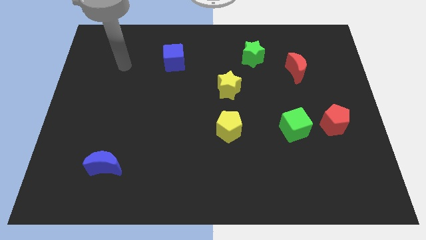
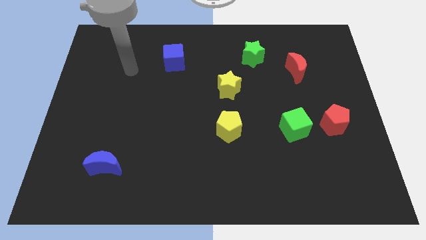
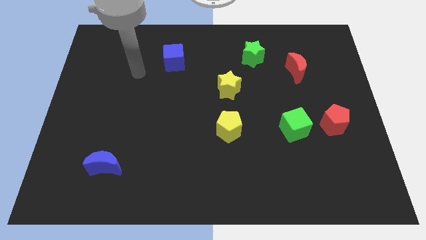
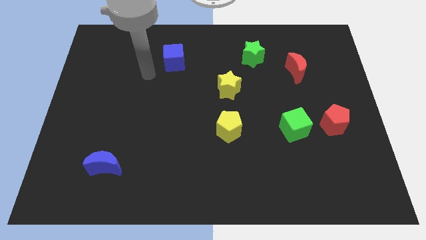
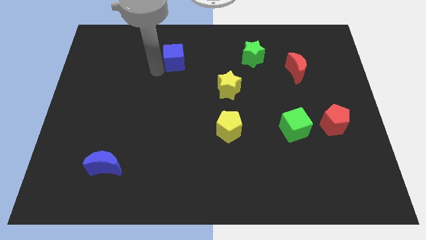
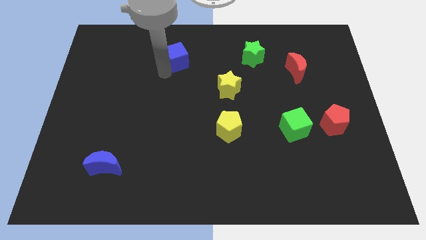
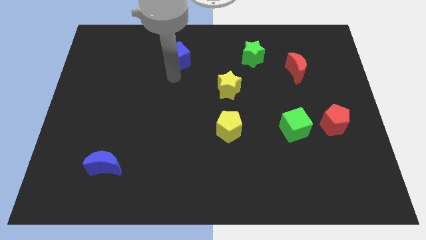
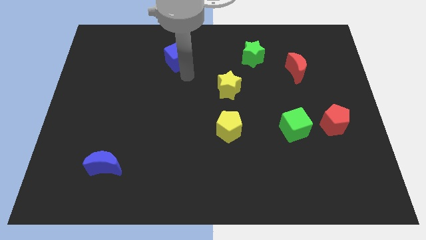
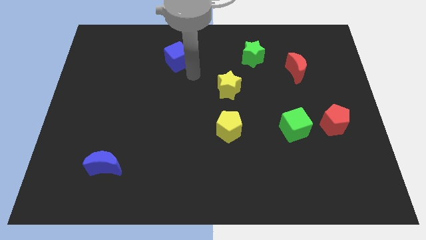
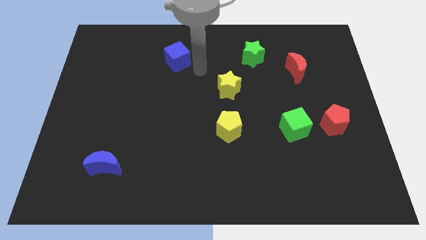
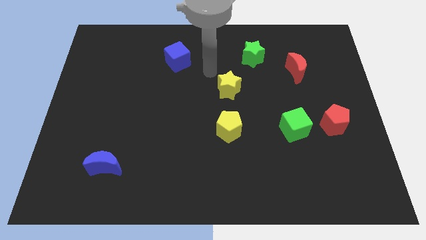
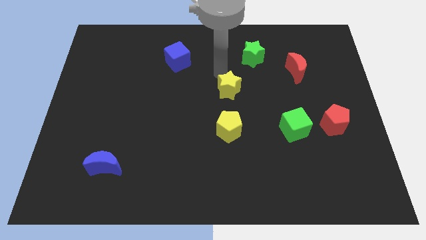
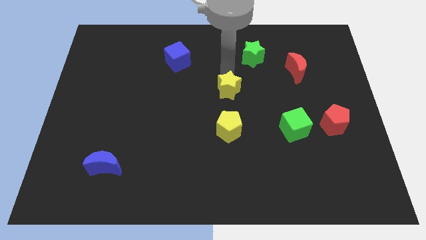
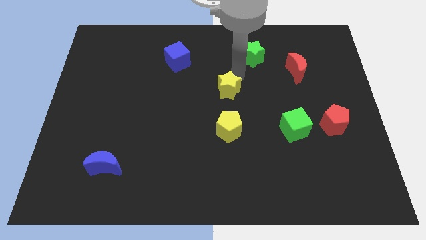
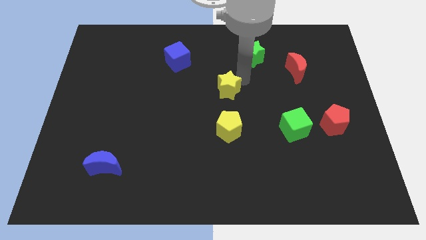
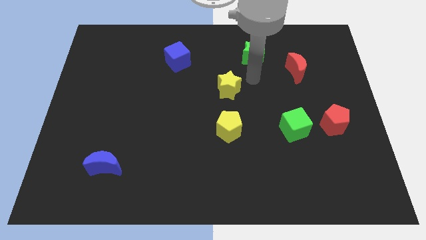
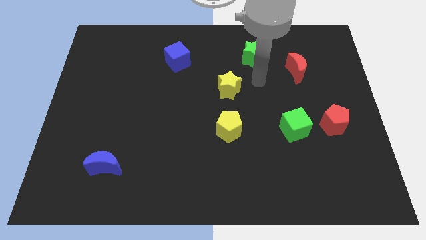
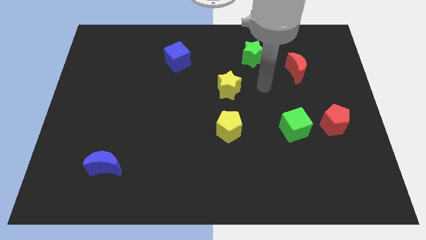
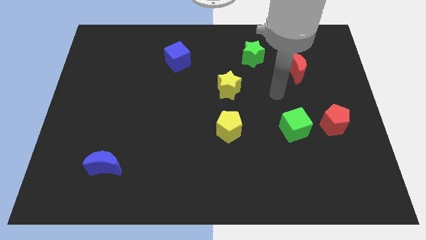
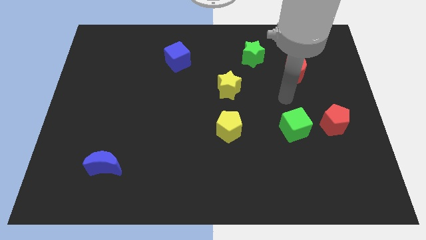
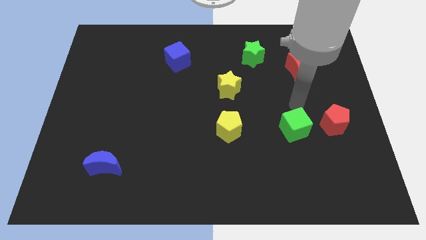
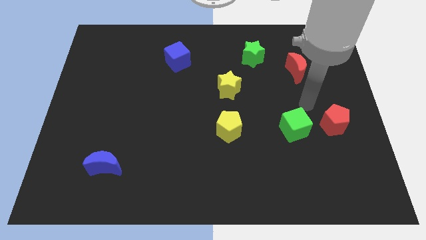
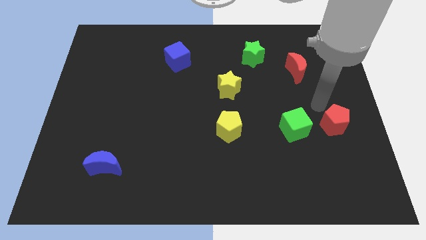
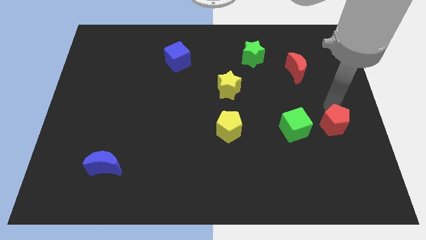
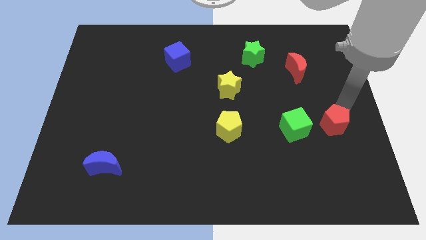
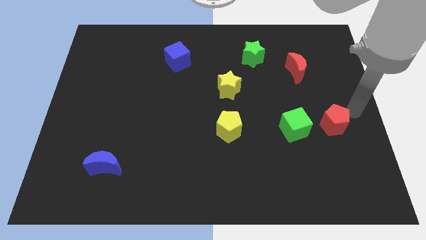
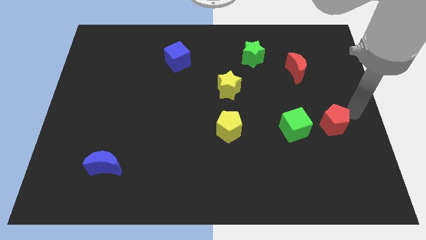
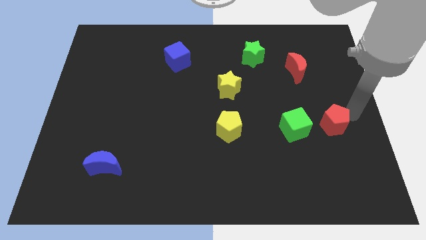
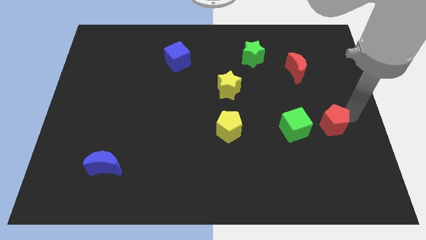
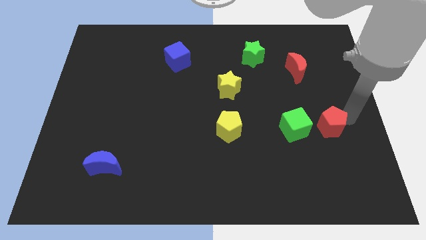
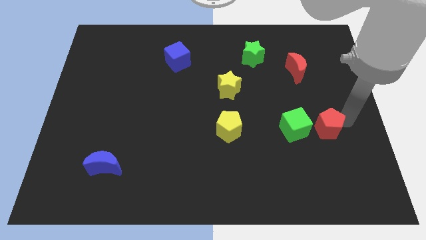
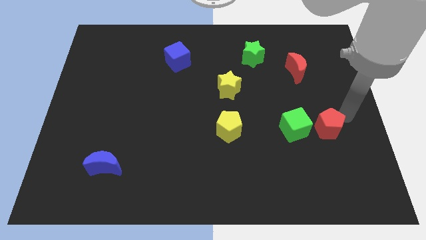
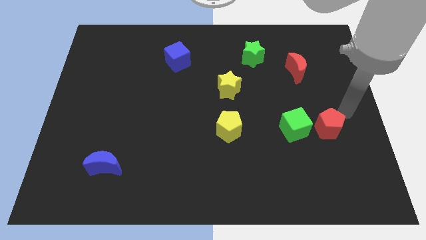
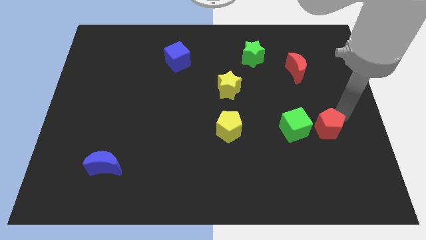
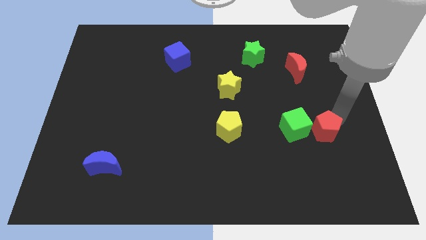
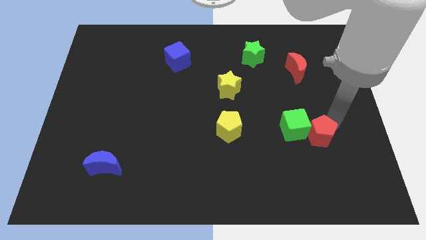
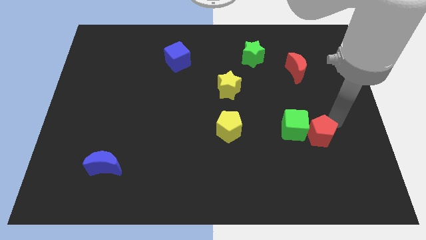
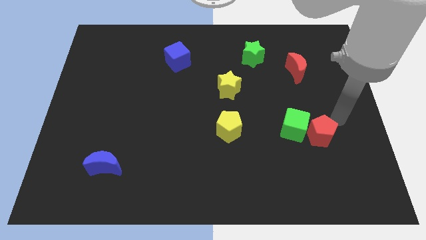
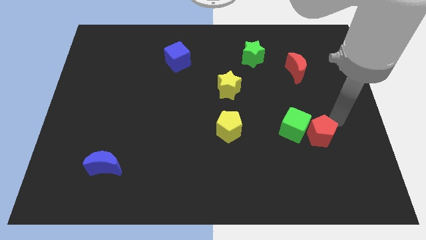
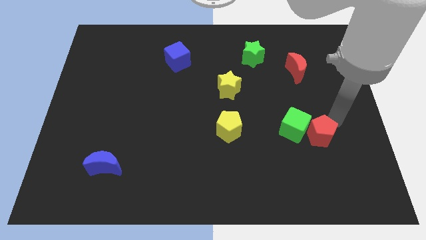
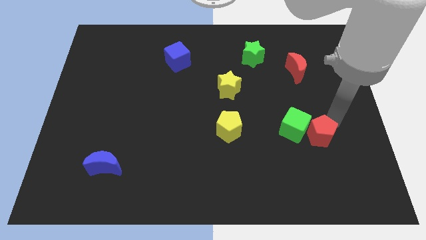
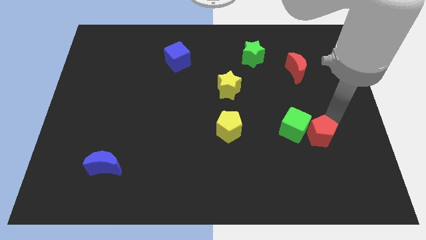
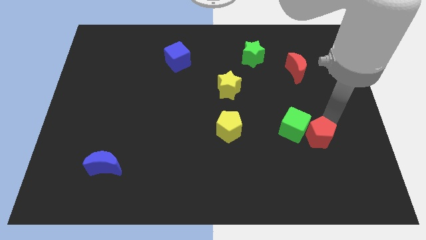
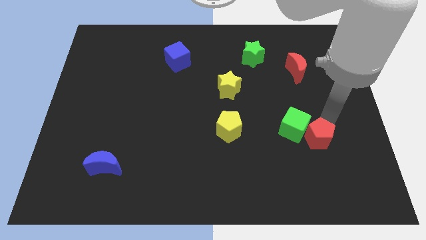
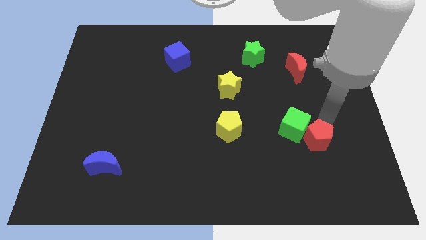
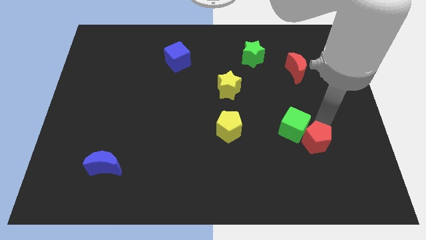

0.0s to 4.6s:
slightly push the red pentagon diagonally downwards and left

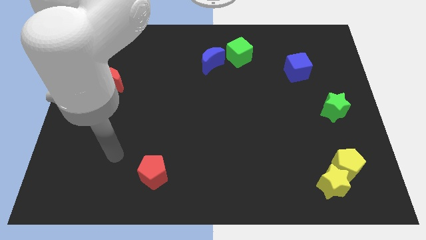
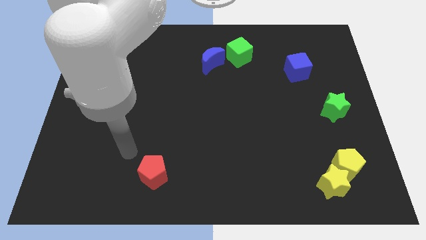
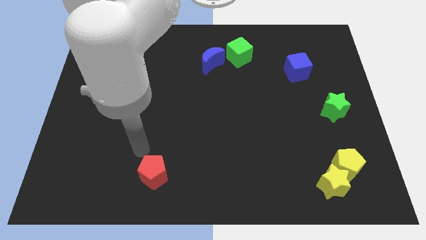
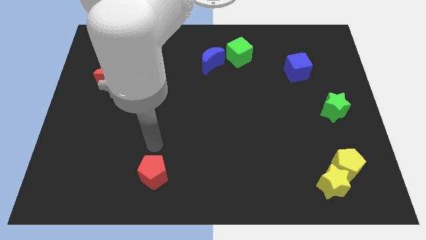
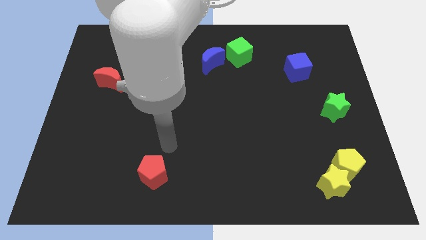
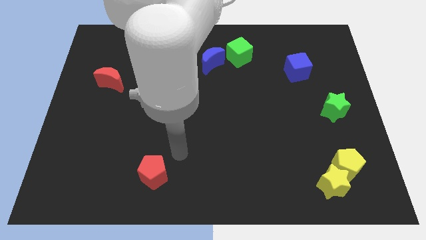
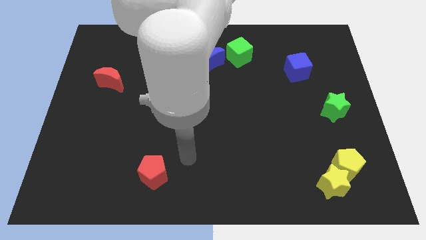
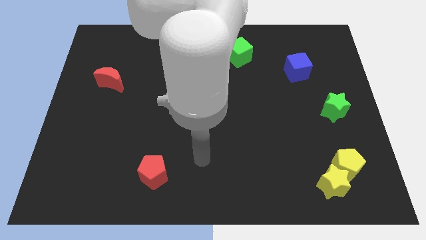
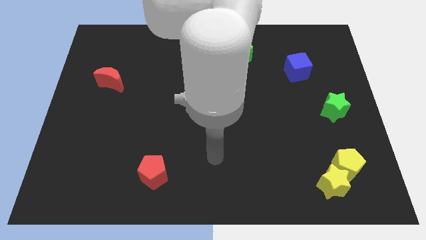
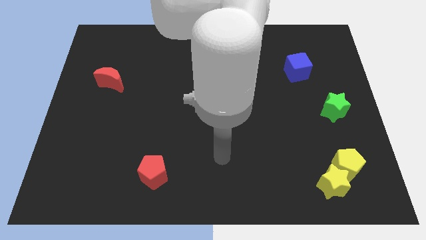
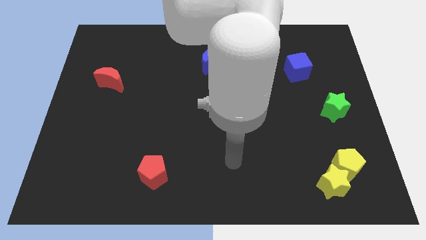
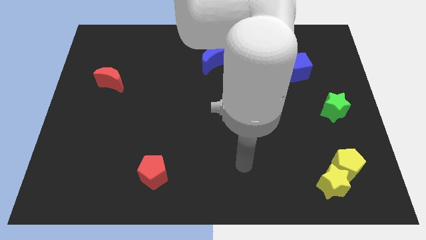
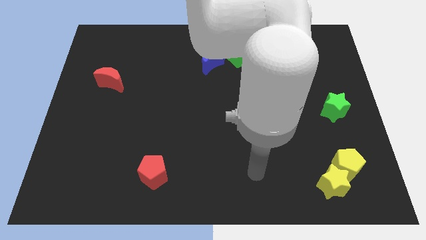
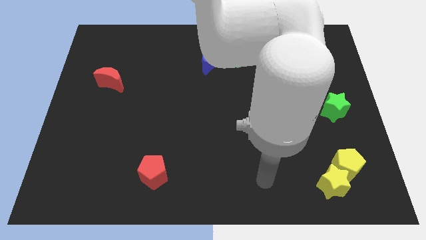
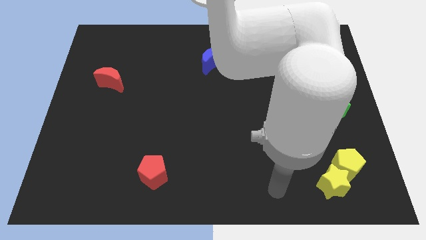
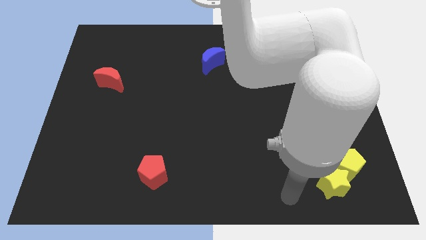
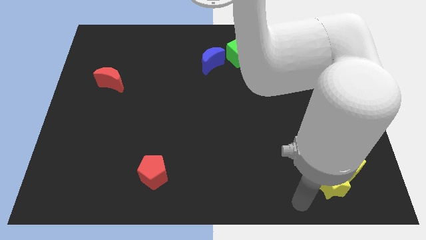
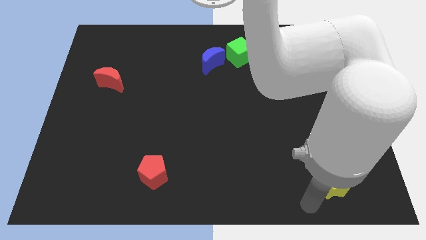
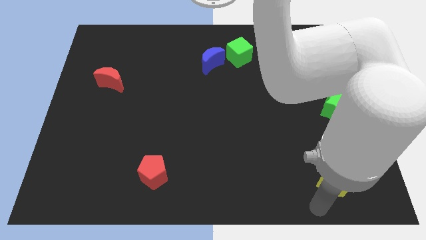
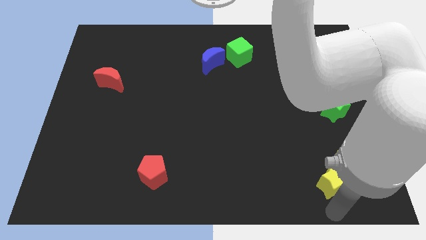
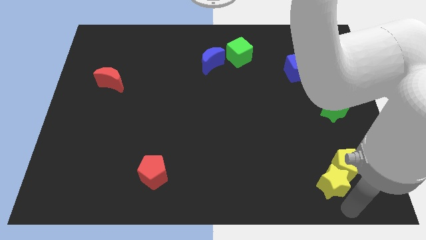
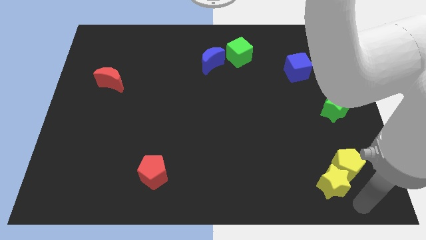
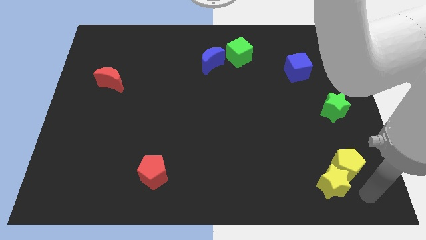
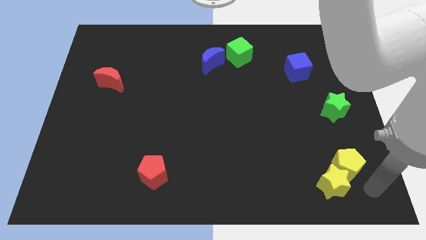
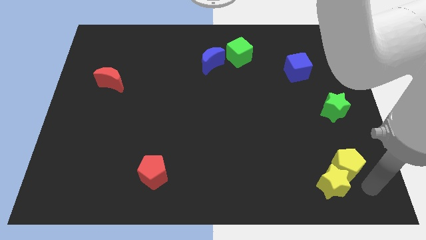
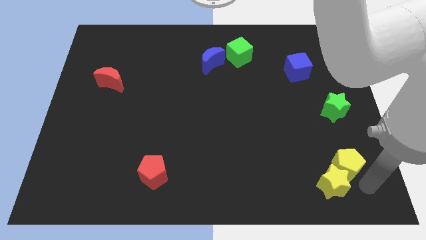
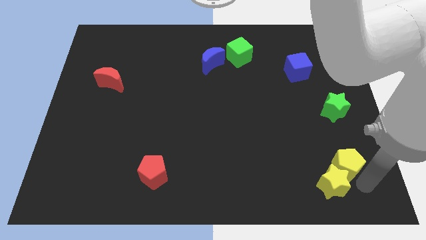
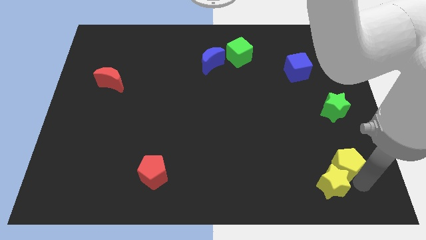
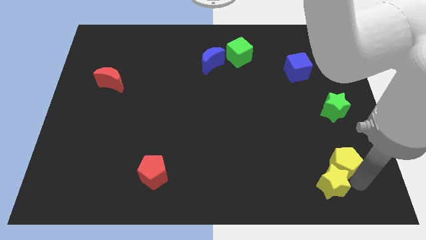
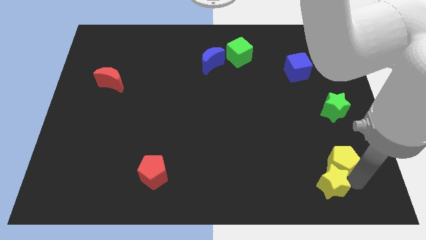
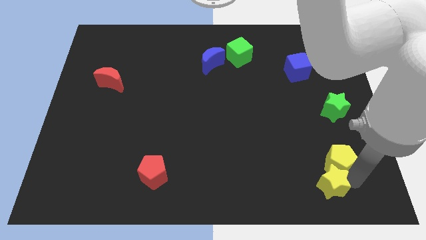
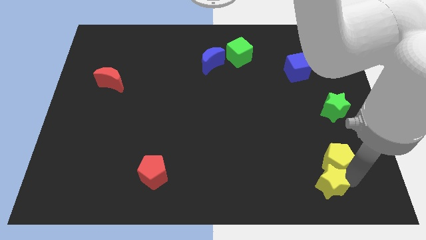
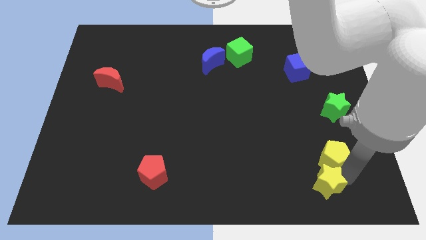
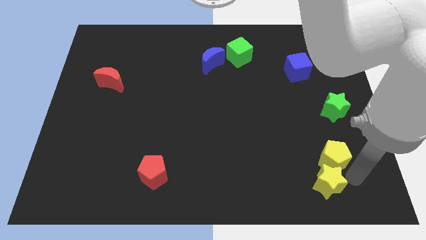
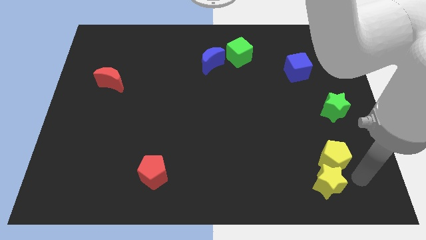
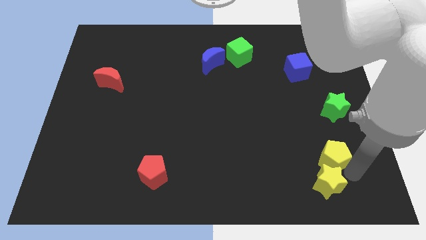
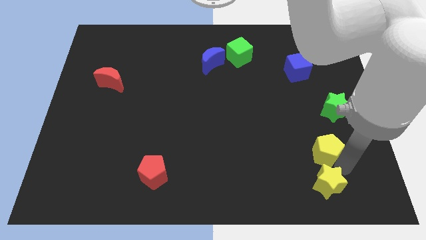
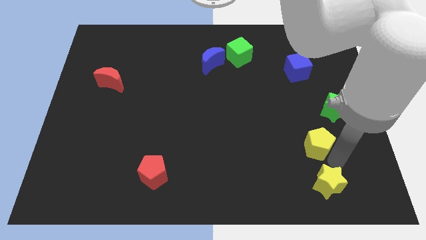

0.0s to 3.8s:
slightly slide the yellow pentagon diagonally up and left
